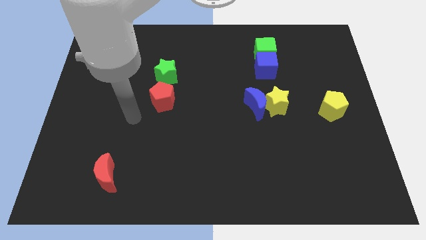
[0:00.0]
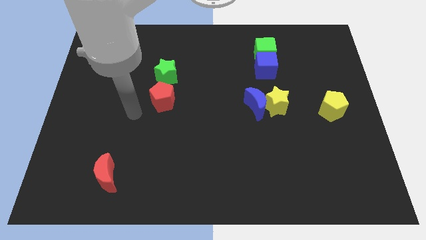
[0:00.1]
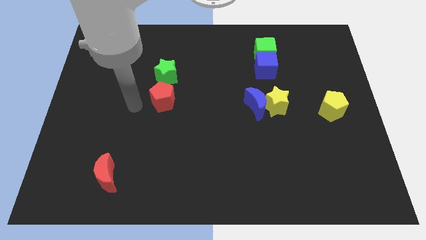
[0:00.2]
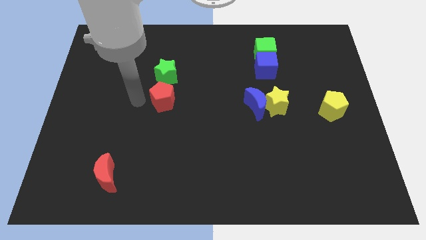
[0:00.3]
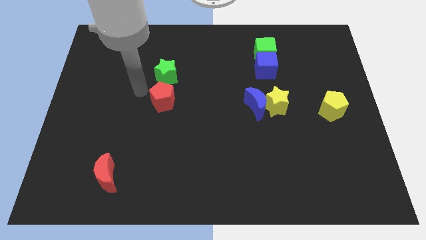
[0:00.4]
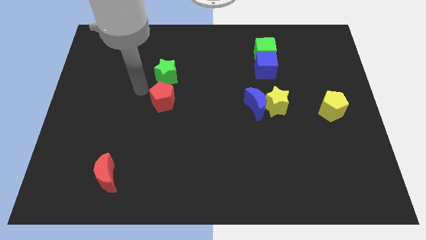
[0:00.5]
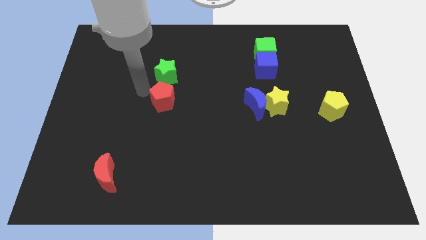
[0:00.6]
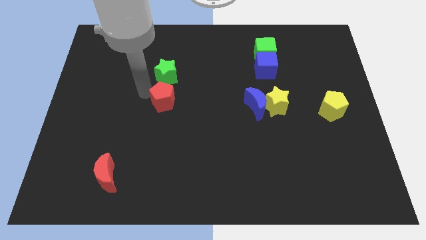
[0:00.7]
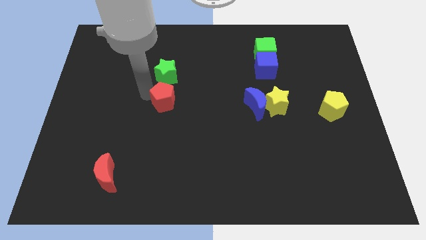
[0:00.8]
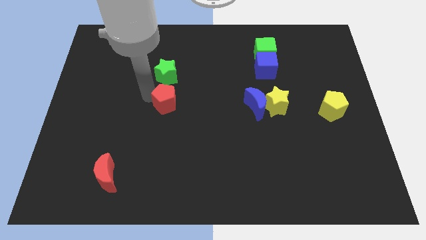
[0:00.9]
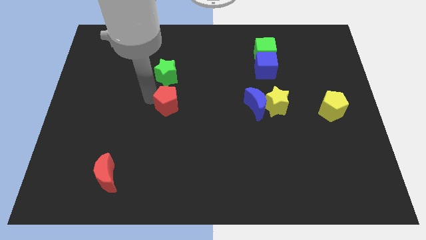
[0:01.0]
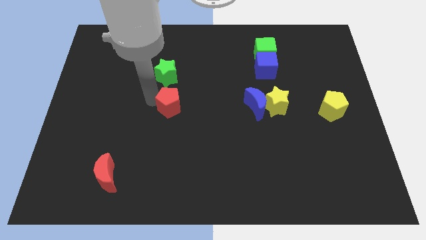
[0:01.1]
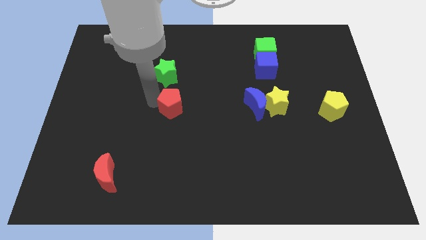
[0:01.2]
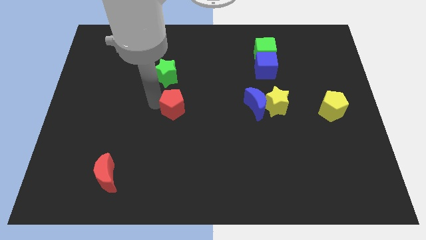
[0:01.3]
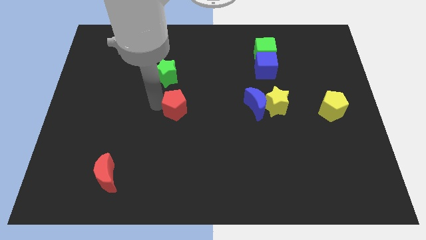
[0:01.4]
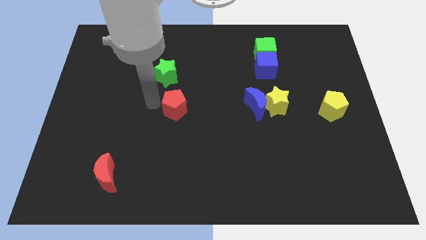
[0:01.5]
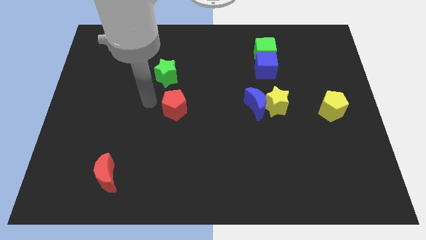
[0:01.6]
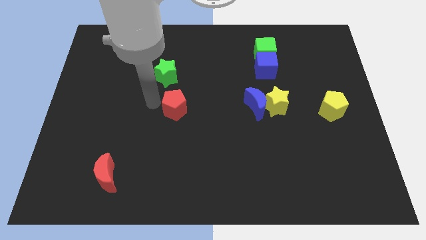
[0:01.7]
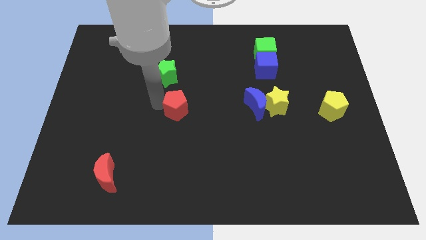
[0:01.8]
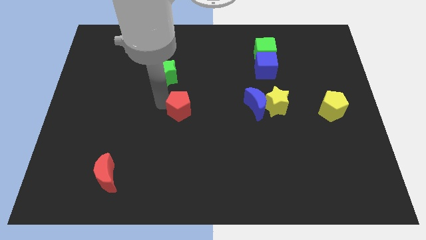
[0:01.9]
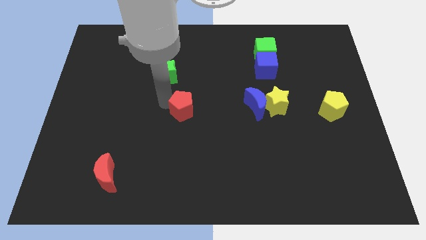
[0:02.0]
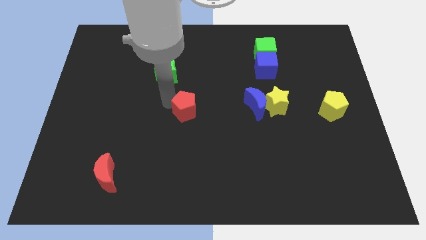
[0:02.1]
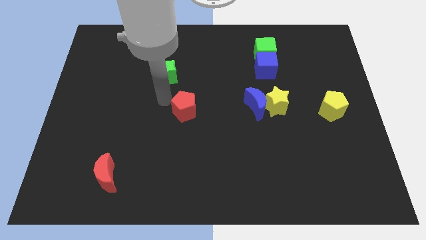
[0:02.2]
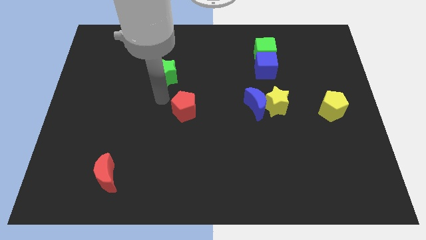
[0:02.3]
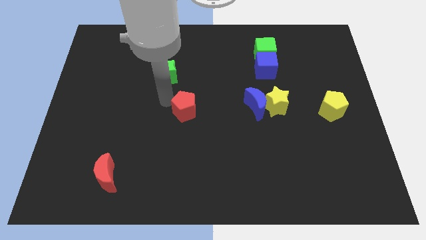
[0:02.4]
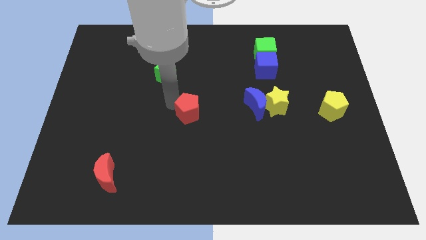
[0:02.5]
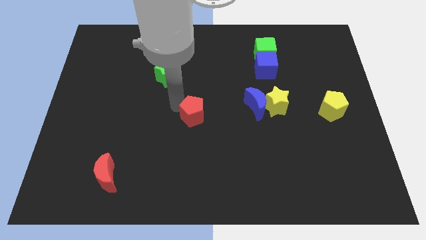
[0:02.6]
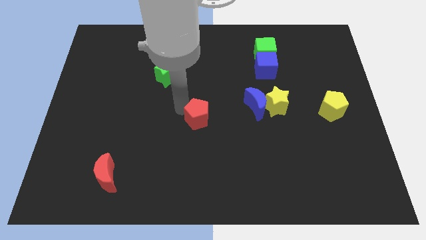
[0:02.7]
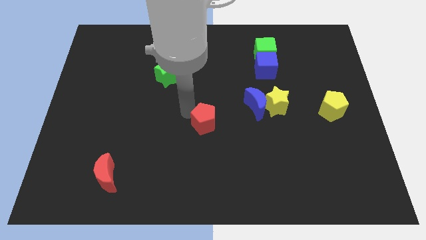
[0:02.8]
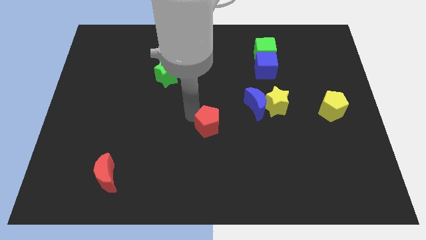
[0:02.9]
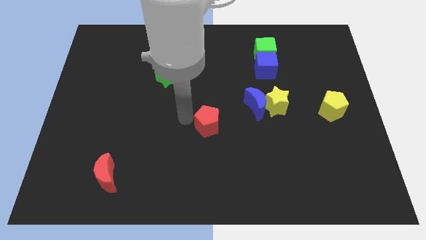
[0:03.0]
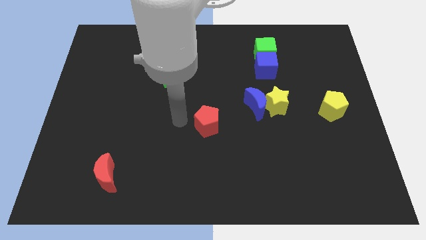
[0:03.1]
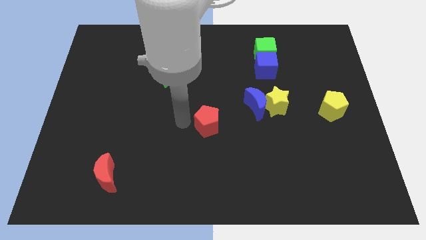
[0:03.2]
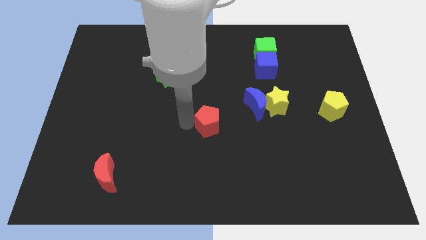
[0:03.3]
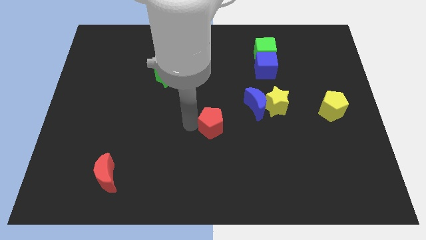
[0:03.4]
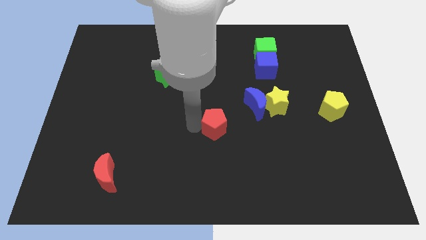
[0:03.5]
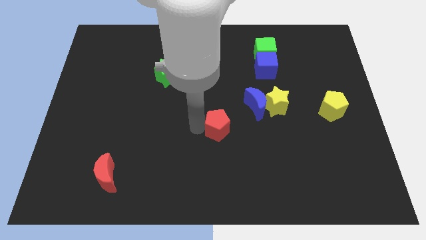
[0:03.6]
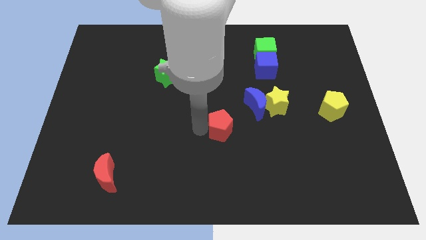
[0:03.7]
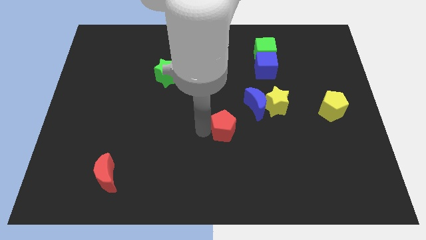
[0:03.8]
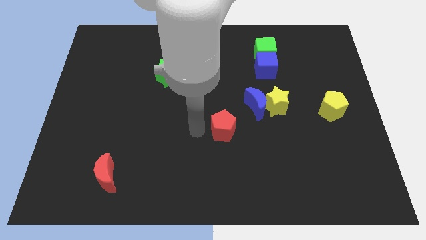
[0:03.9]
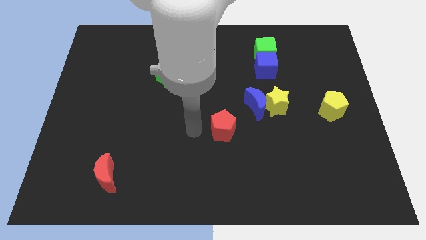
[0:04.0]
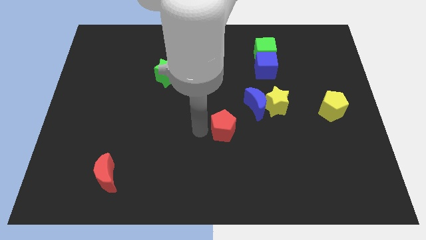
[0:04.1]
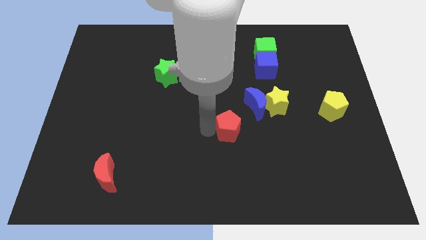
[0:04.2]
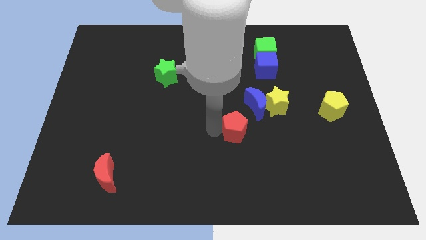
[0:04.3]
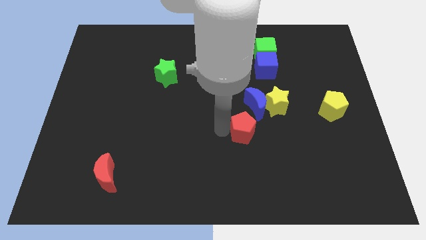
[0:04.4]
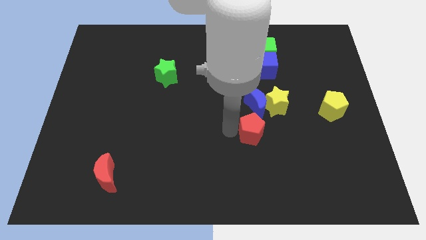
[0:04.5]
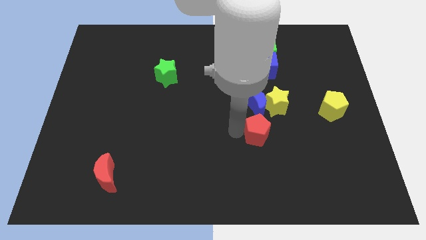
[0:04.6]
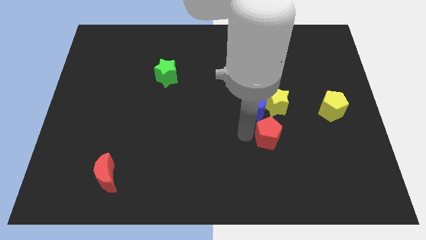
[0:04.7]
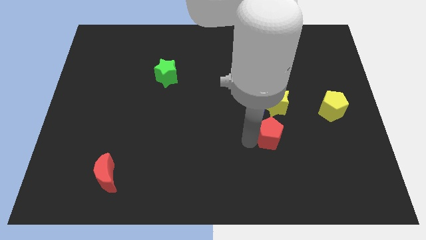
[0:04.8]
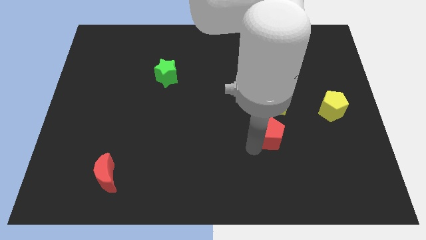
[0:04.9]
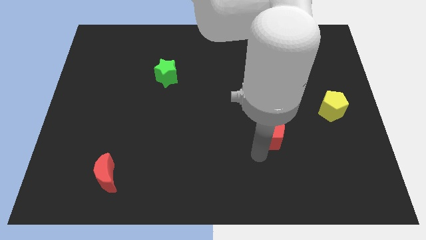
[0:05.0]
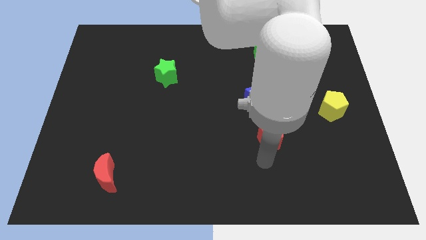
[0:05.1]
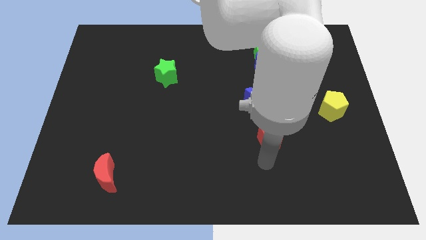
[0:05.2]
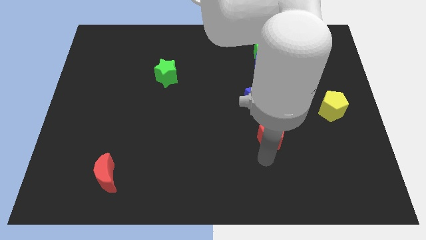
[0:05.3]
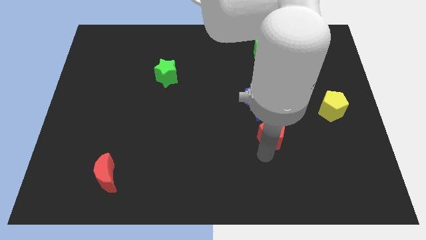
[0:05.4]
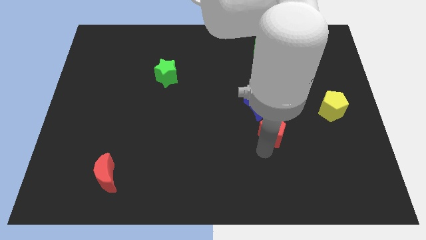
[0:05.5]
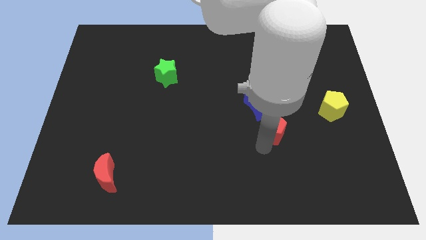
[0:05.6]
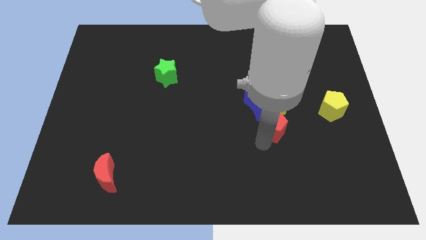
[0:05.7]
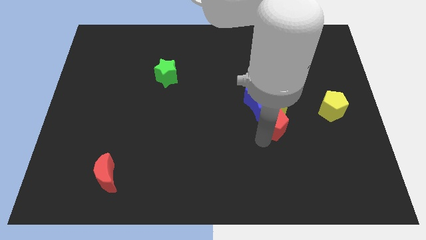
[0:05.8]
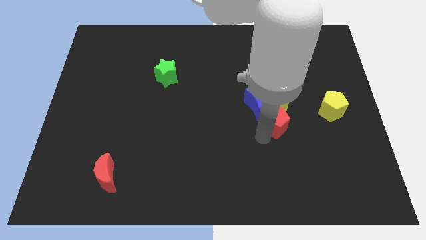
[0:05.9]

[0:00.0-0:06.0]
move the red pentagon to the yellow star
